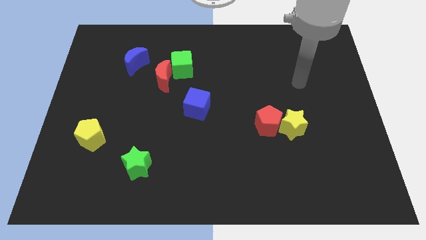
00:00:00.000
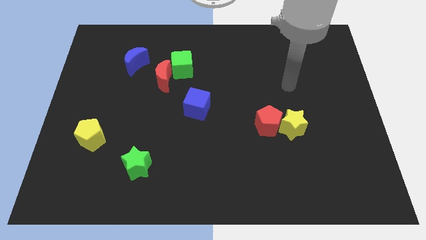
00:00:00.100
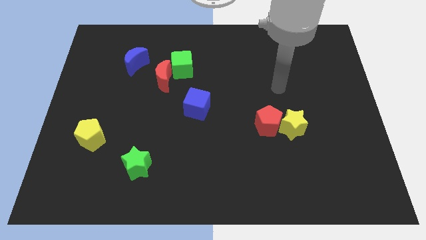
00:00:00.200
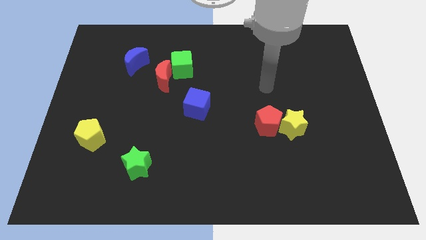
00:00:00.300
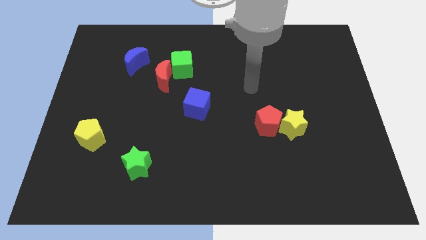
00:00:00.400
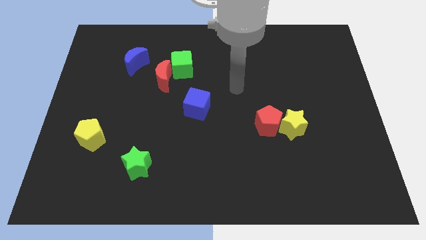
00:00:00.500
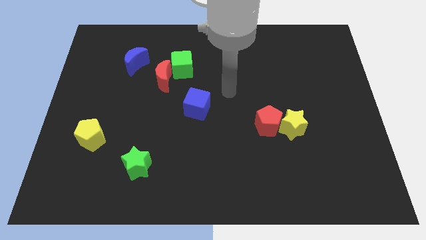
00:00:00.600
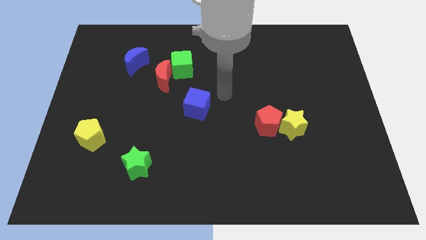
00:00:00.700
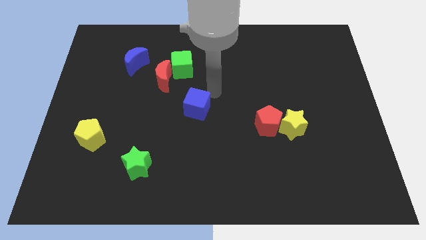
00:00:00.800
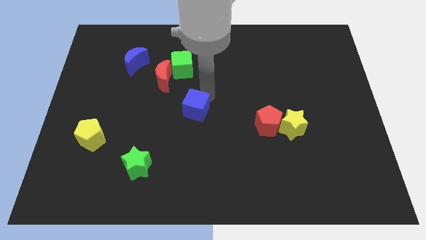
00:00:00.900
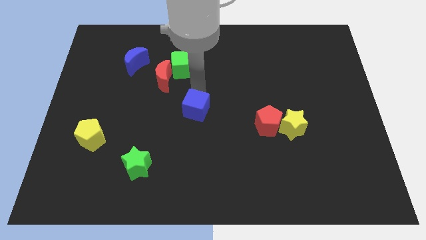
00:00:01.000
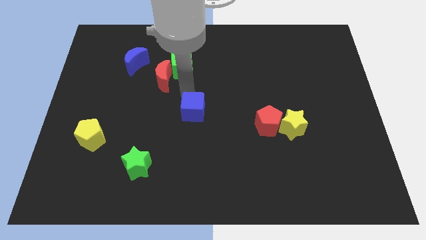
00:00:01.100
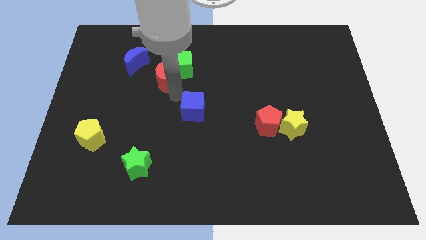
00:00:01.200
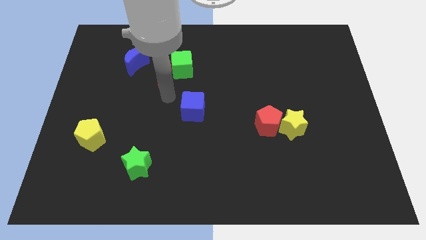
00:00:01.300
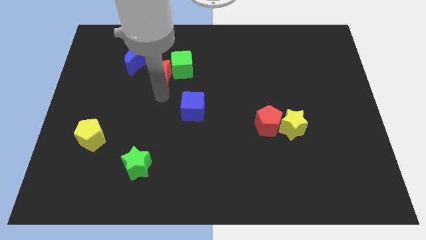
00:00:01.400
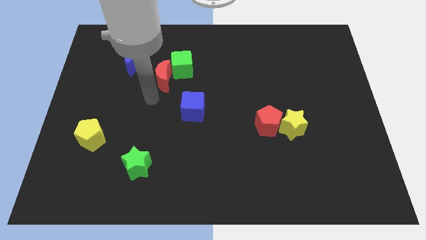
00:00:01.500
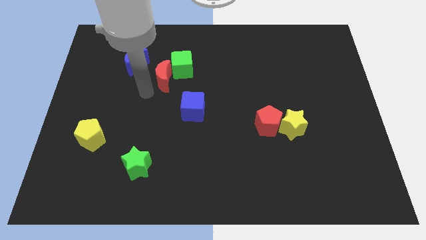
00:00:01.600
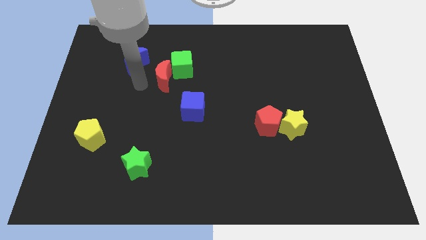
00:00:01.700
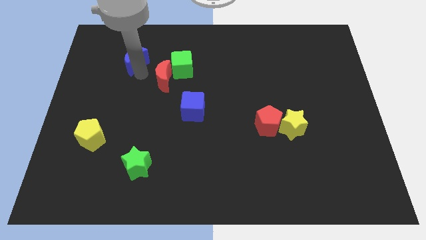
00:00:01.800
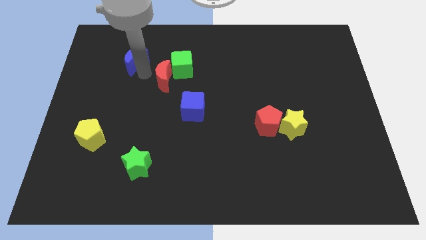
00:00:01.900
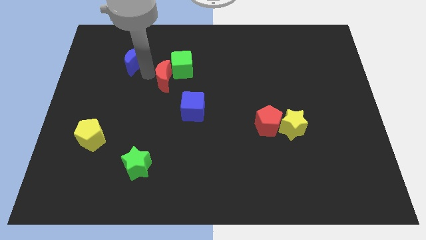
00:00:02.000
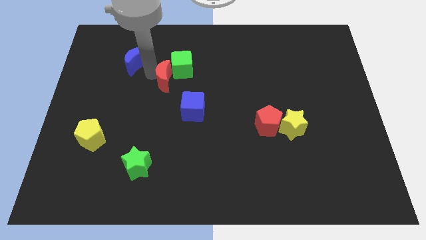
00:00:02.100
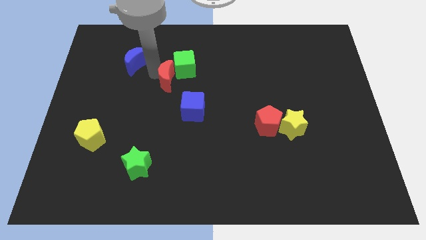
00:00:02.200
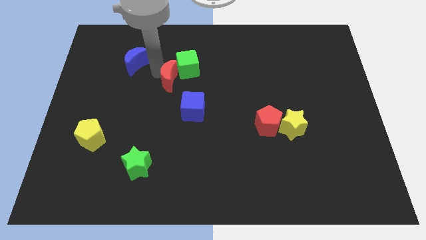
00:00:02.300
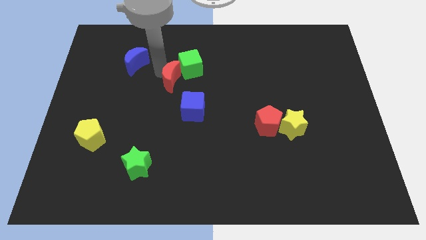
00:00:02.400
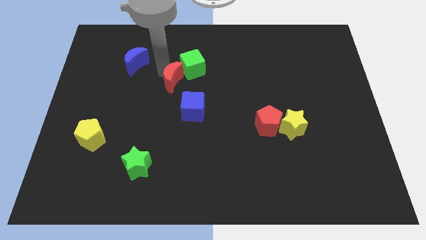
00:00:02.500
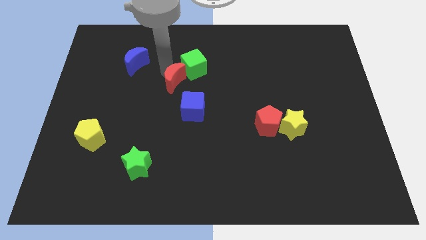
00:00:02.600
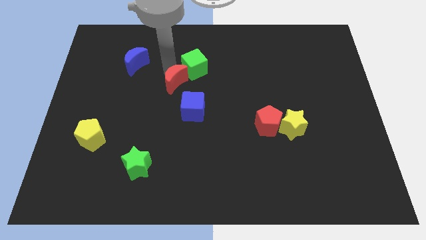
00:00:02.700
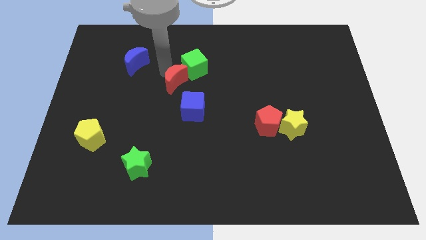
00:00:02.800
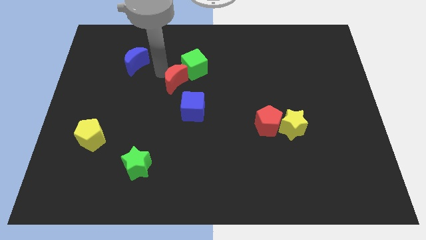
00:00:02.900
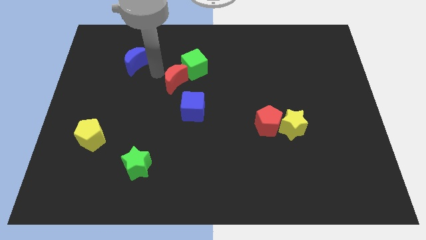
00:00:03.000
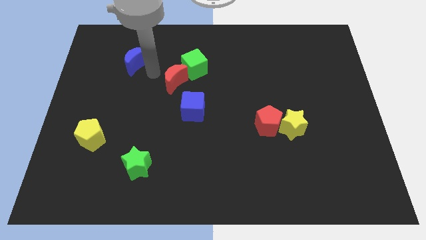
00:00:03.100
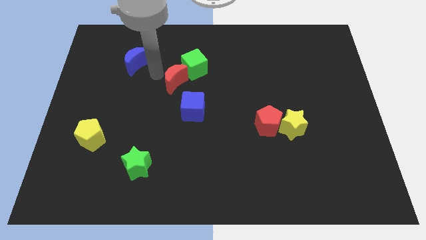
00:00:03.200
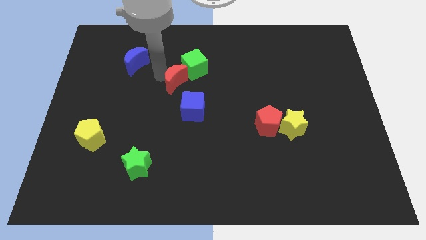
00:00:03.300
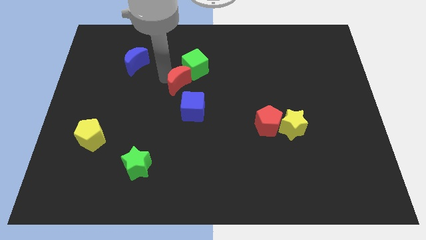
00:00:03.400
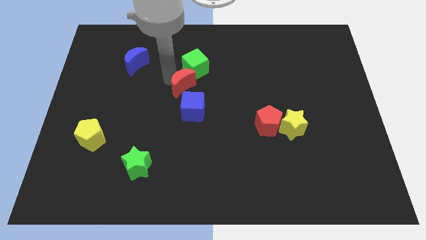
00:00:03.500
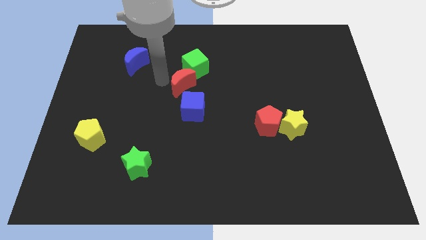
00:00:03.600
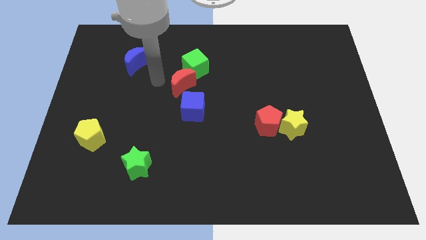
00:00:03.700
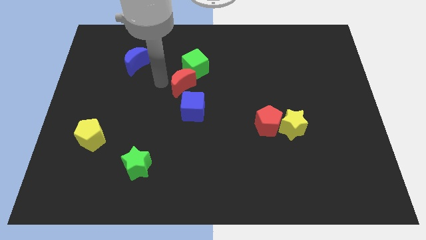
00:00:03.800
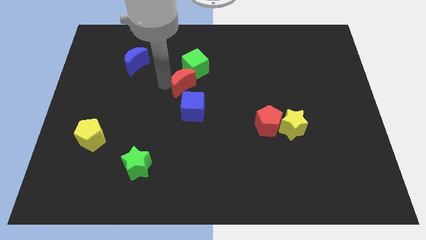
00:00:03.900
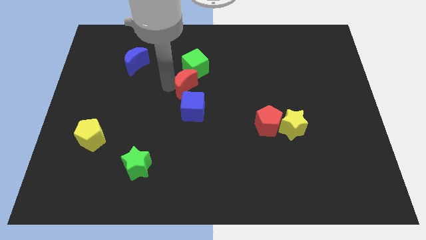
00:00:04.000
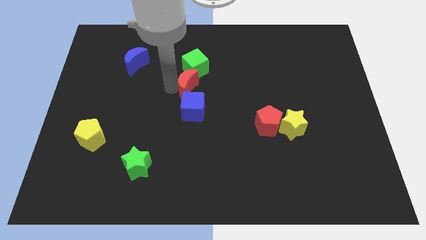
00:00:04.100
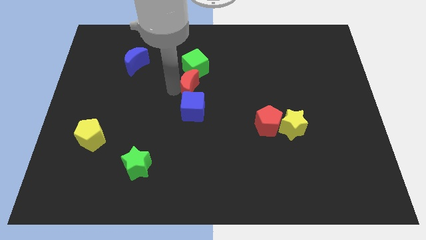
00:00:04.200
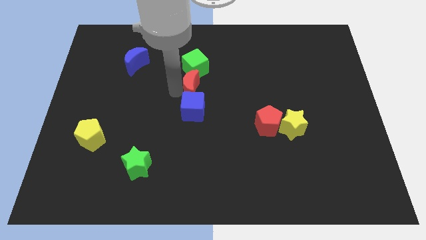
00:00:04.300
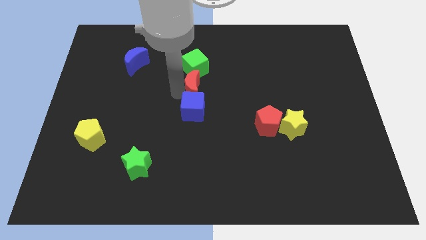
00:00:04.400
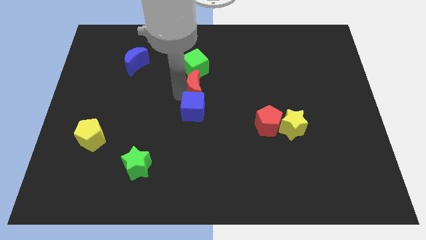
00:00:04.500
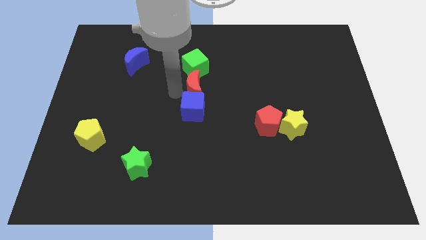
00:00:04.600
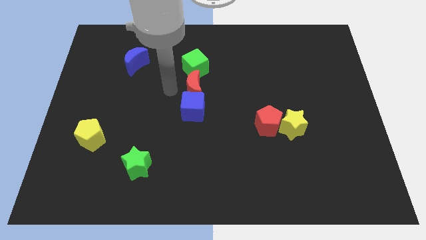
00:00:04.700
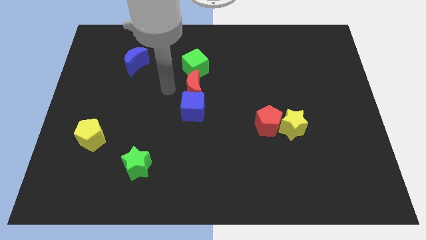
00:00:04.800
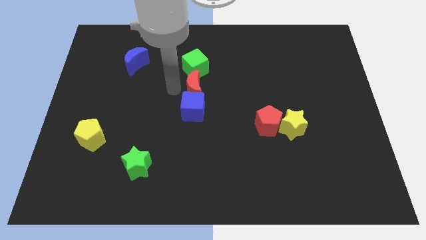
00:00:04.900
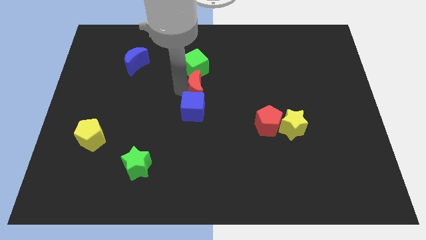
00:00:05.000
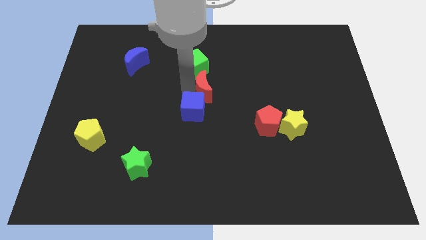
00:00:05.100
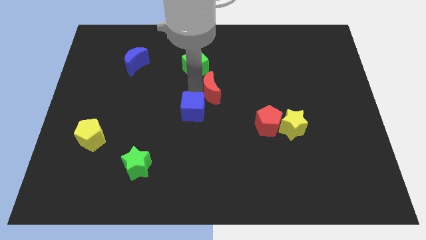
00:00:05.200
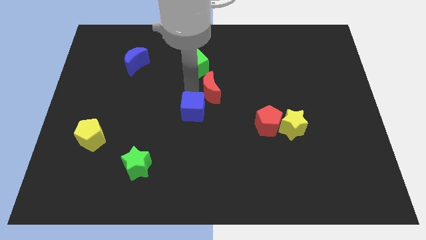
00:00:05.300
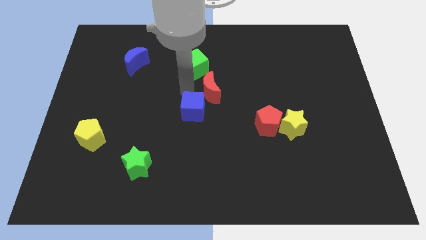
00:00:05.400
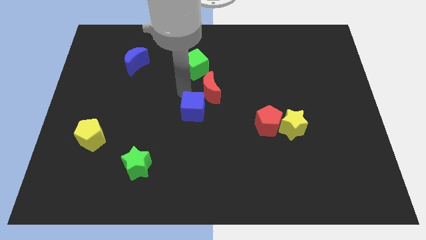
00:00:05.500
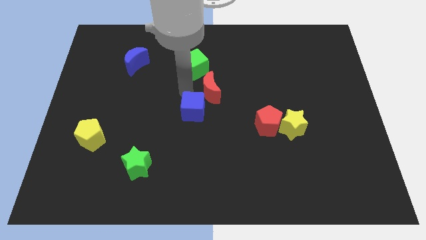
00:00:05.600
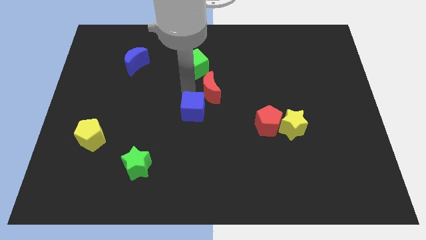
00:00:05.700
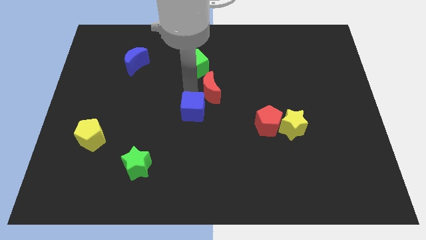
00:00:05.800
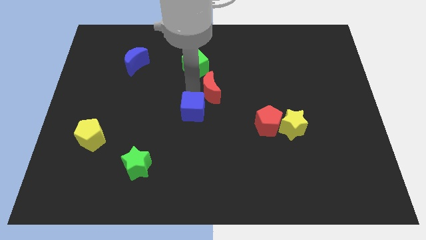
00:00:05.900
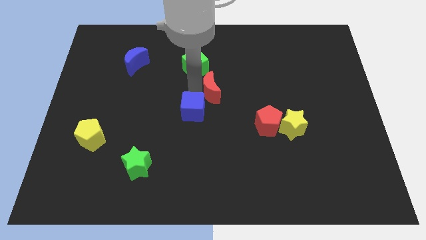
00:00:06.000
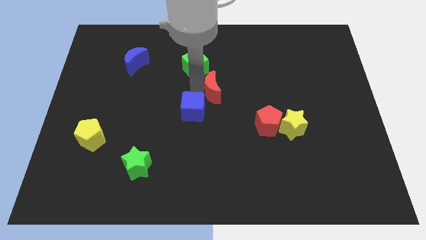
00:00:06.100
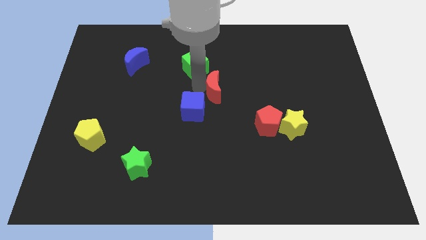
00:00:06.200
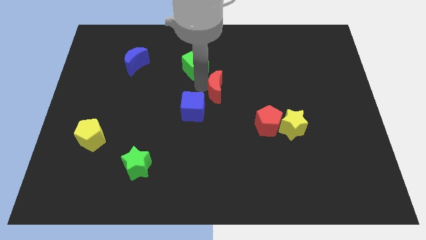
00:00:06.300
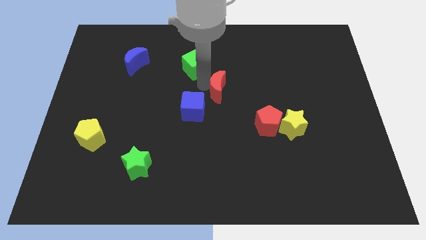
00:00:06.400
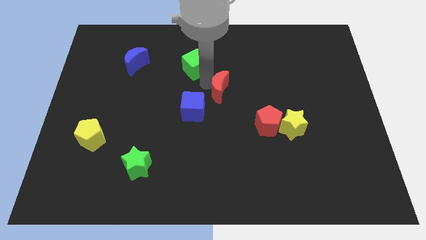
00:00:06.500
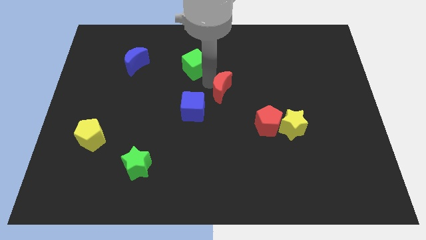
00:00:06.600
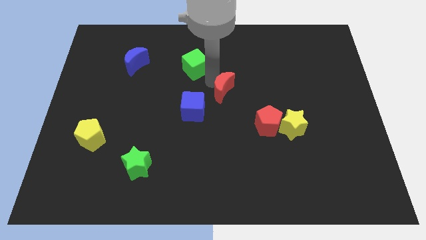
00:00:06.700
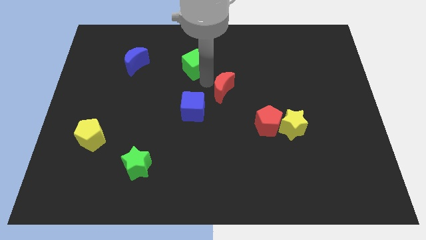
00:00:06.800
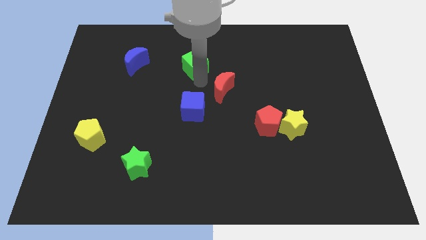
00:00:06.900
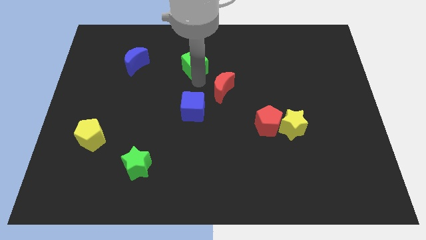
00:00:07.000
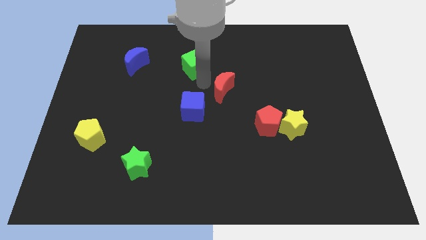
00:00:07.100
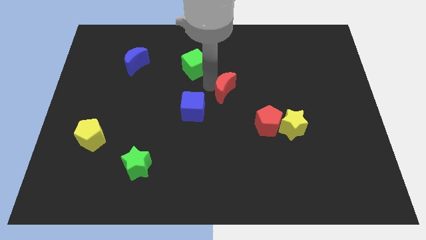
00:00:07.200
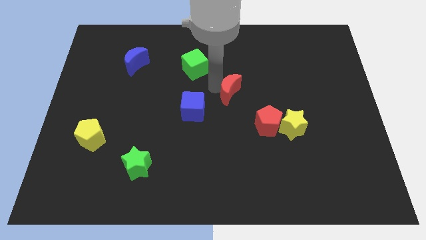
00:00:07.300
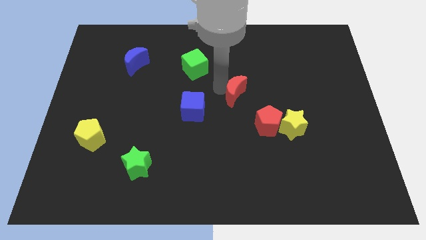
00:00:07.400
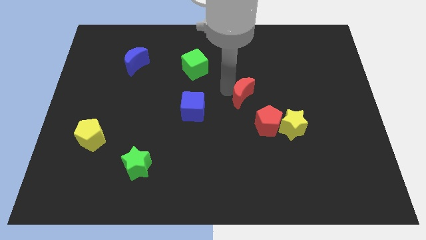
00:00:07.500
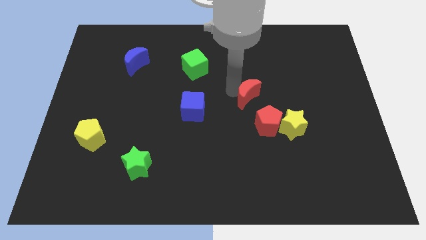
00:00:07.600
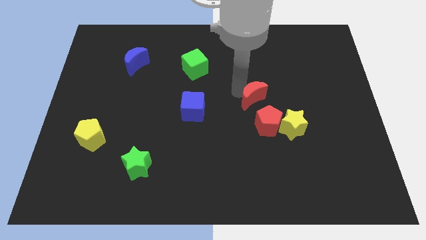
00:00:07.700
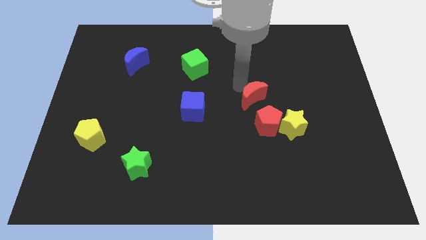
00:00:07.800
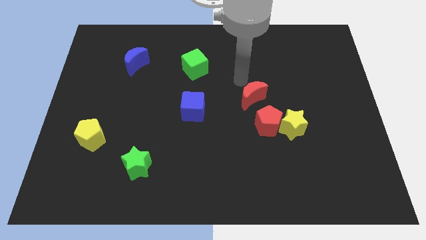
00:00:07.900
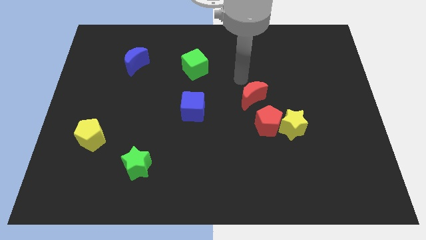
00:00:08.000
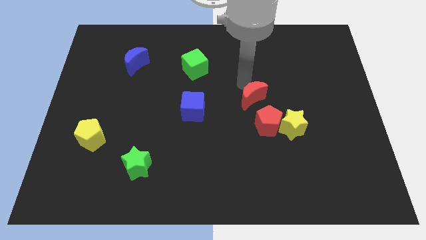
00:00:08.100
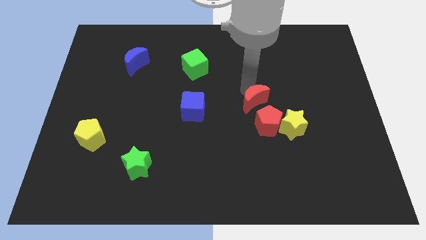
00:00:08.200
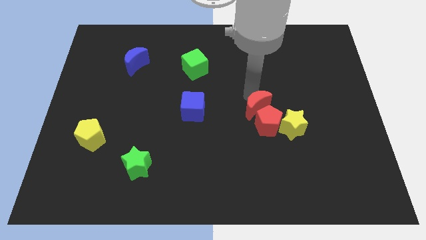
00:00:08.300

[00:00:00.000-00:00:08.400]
move the red moon next to the red pentagon
